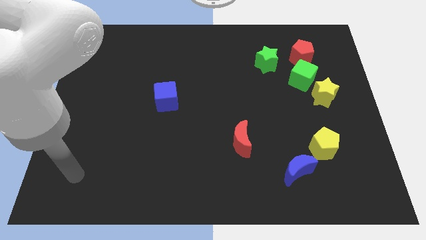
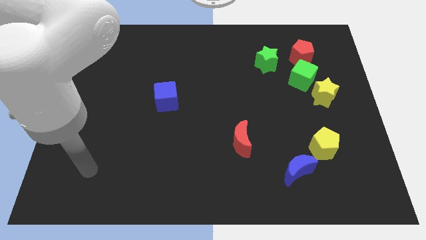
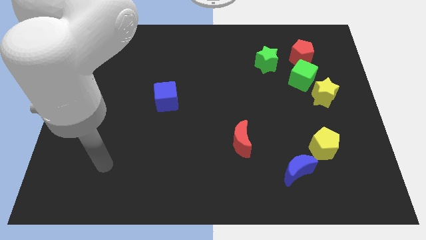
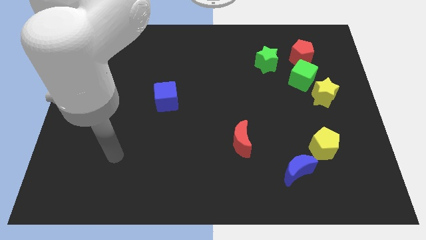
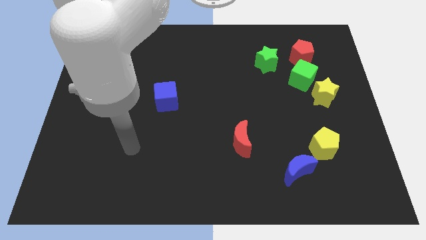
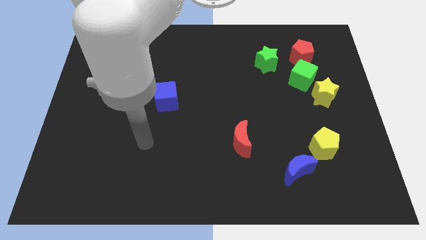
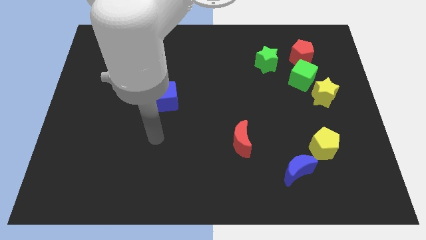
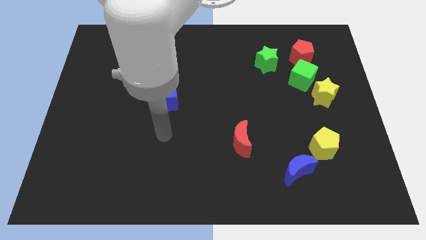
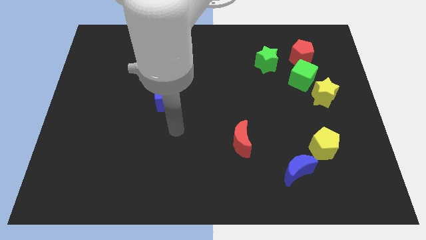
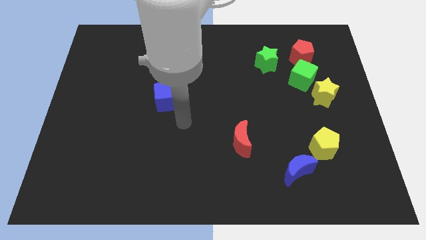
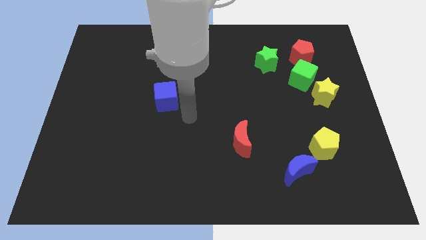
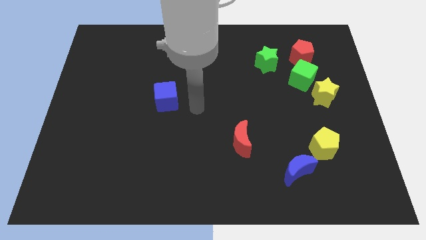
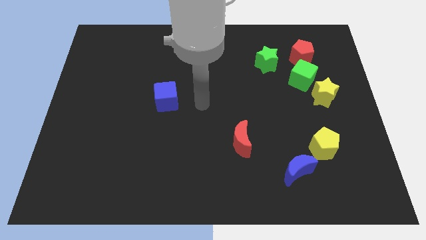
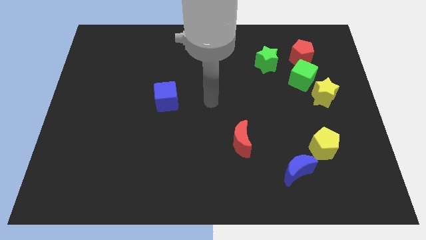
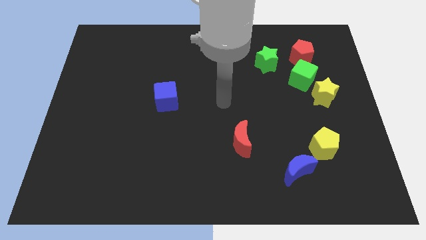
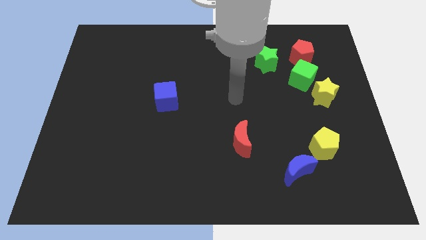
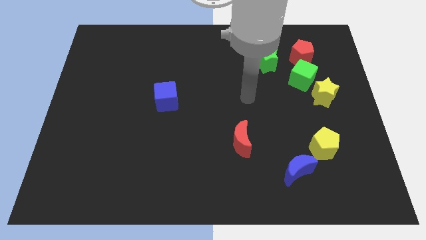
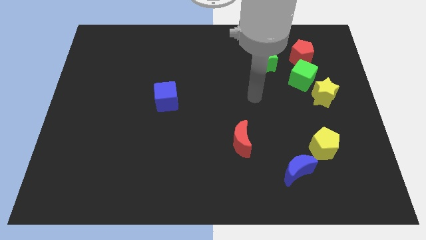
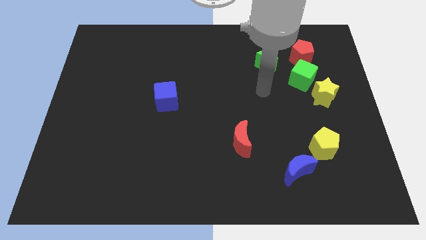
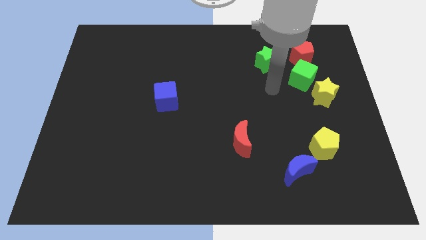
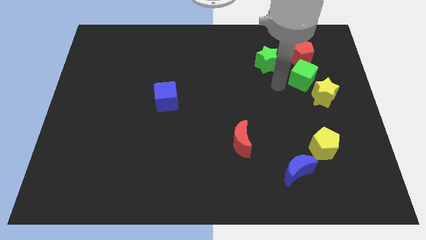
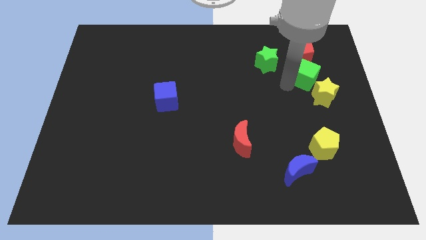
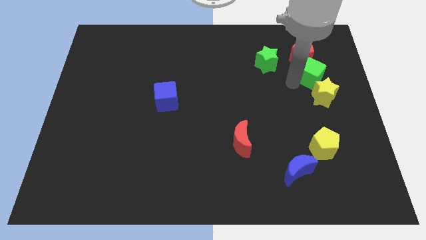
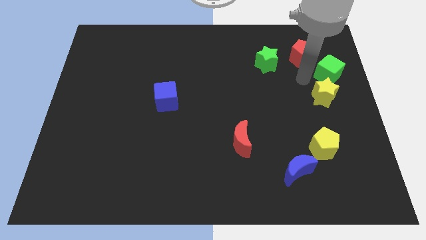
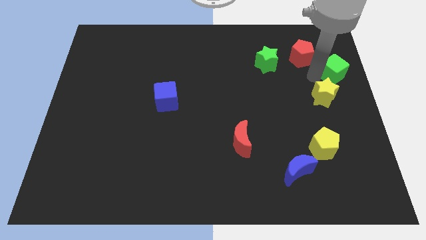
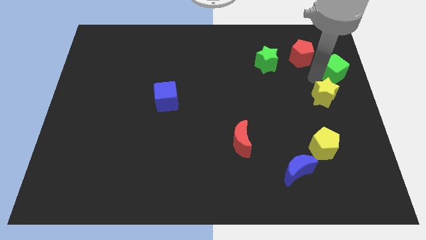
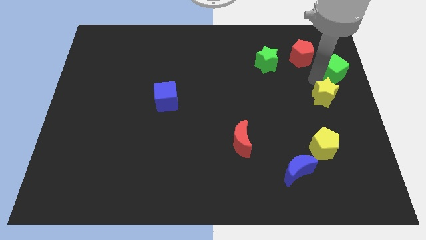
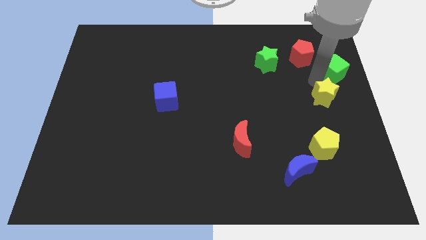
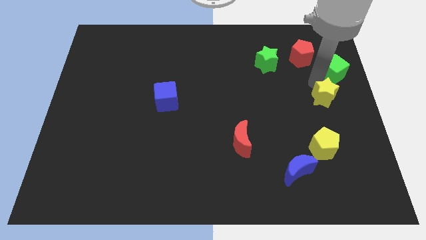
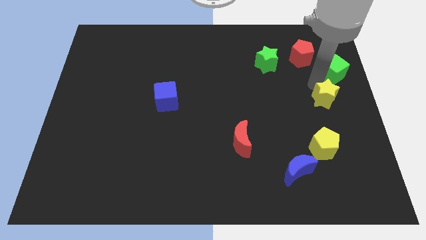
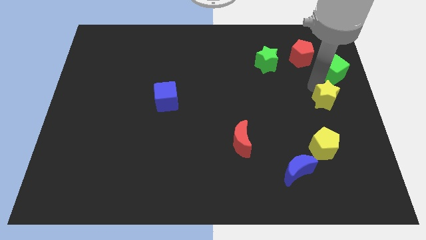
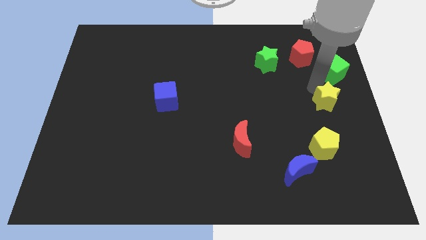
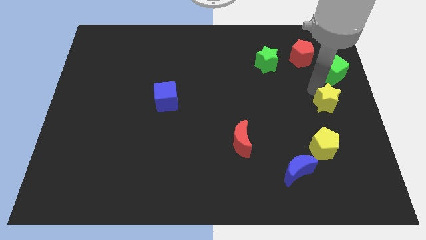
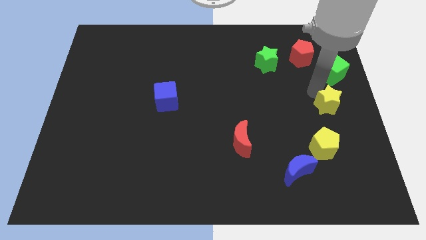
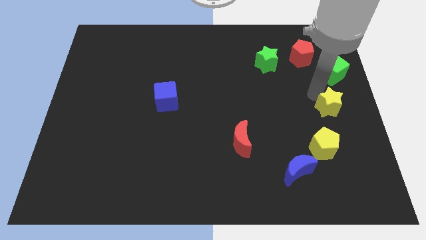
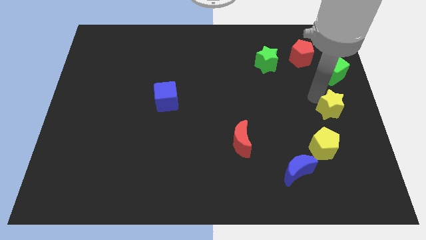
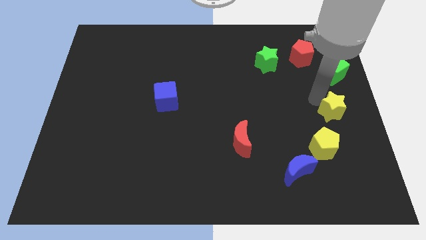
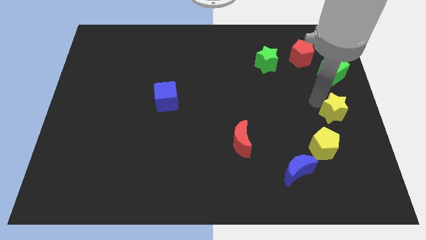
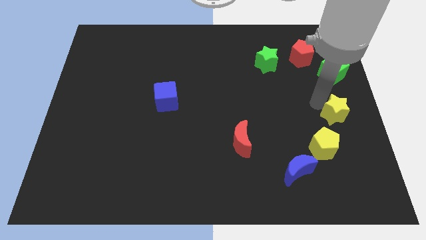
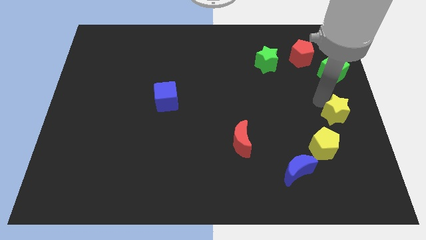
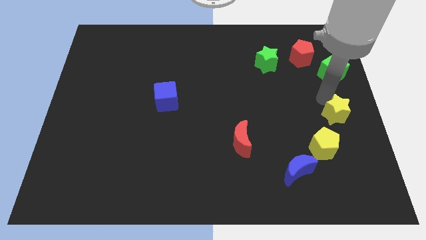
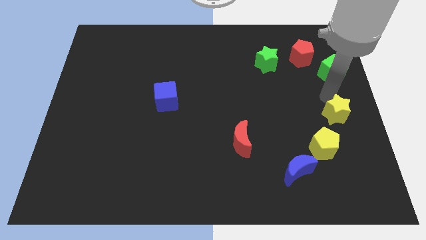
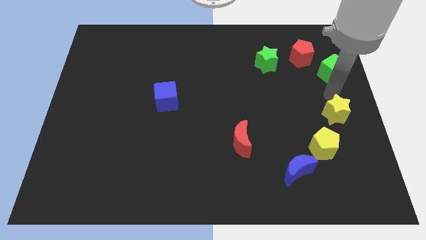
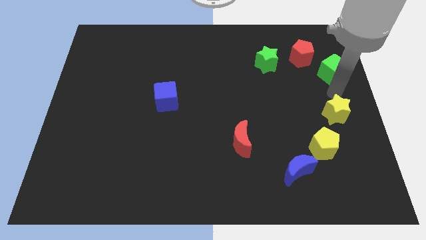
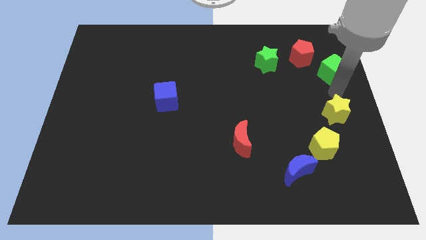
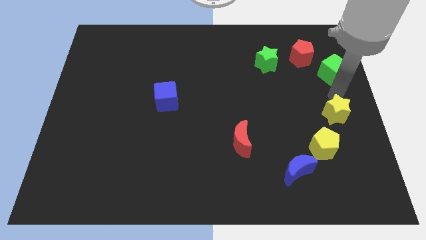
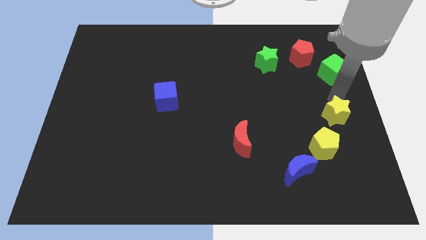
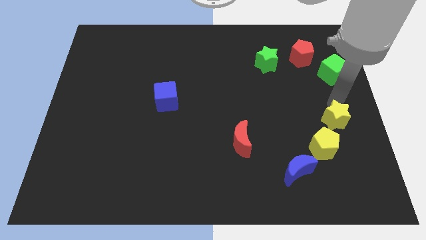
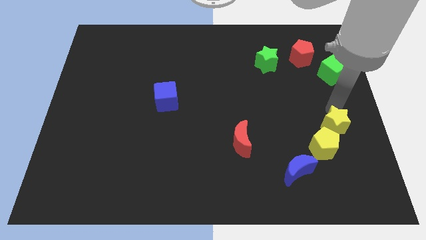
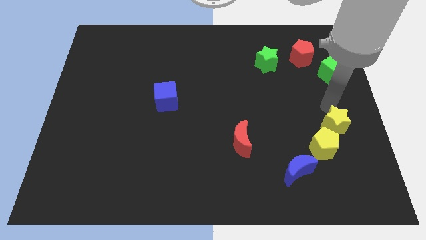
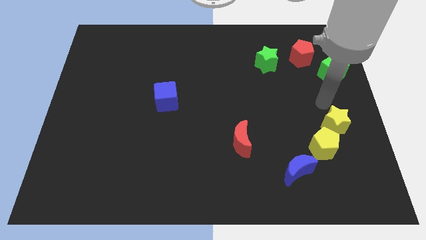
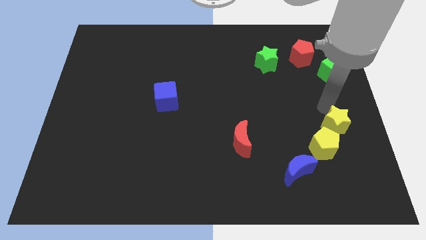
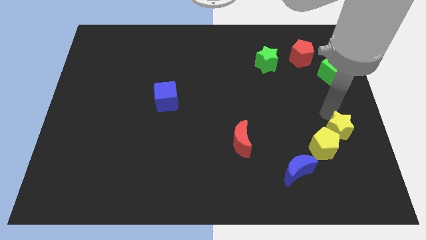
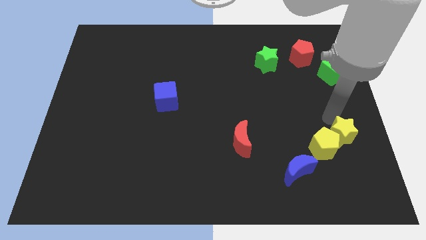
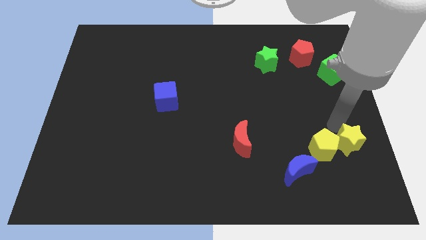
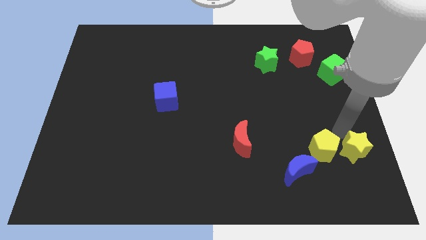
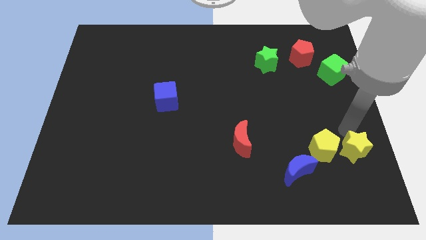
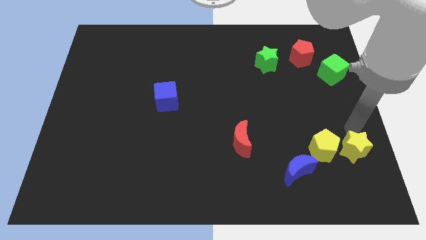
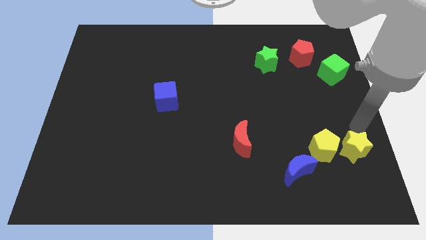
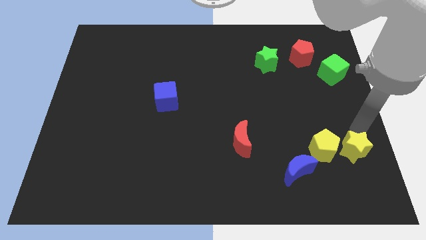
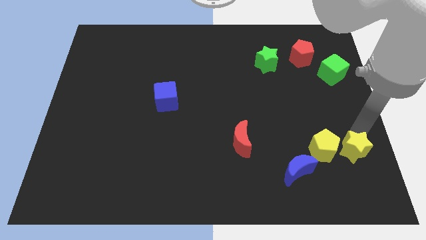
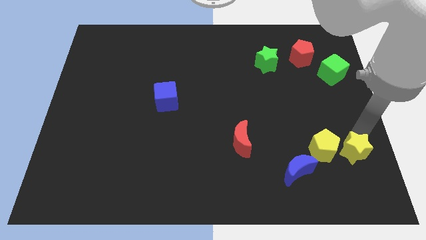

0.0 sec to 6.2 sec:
put the yellow star to the right side of the blue moon

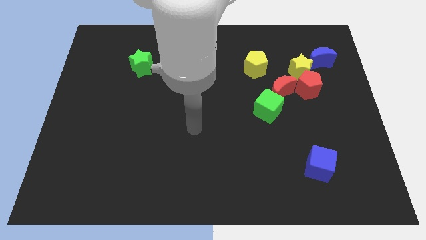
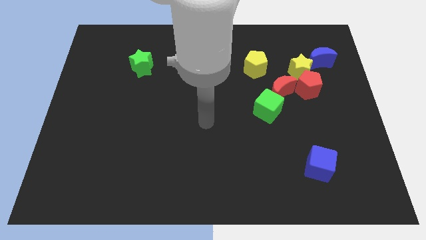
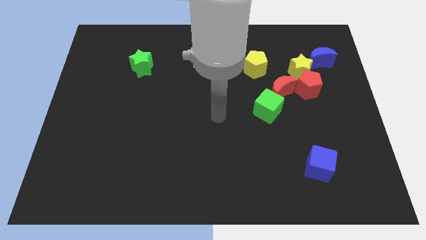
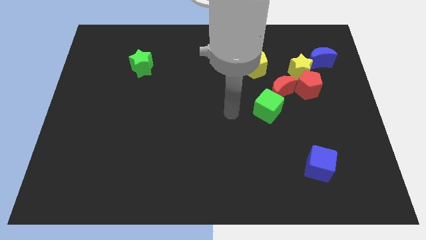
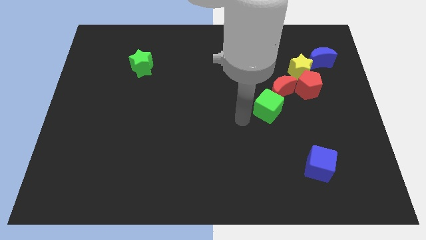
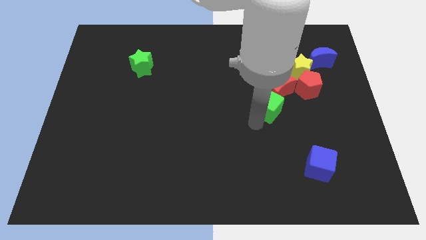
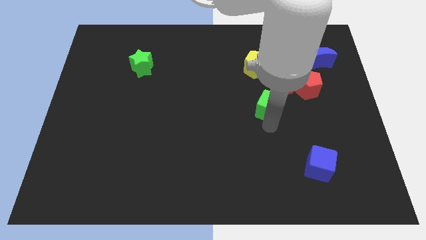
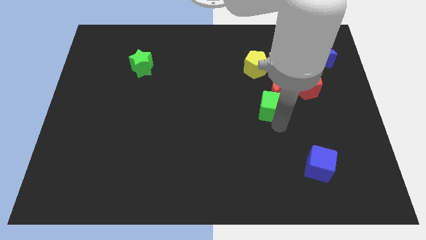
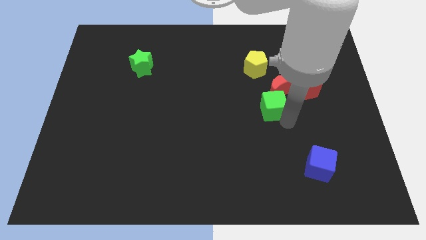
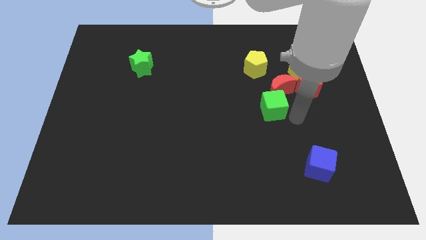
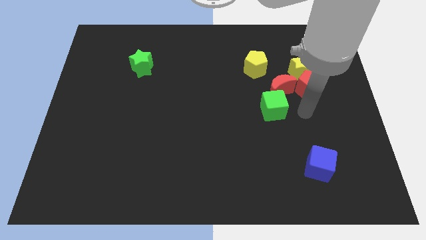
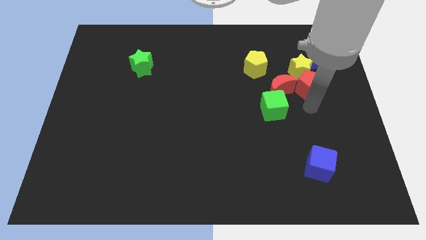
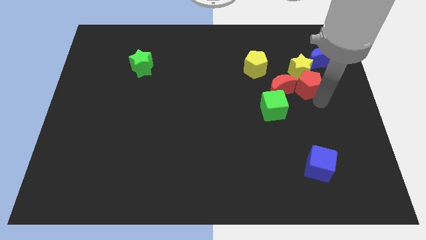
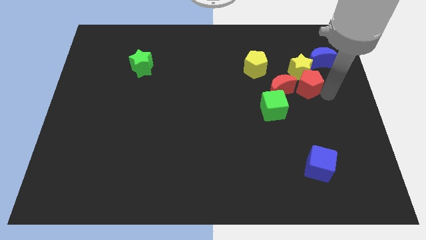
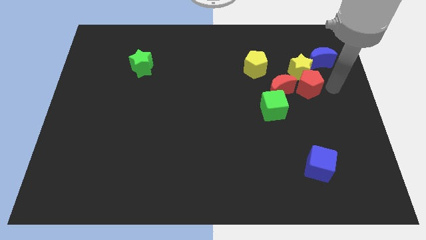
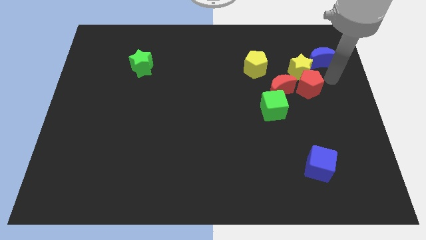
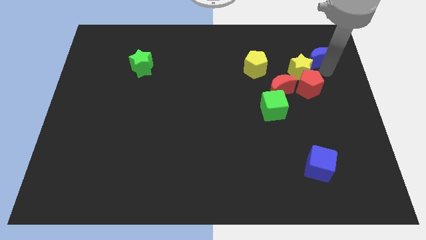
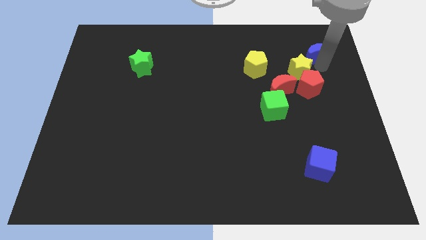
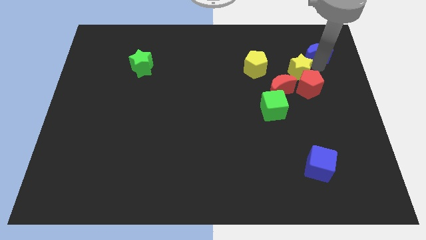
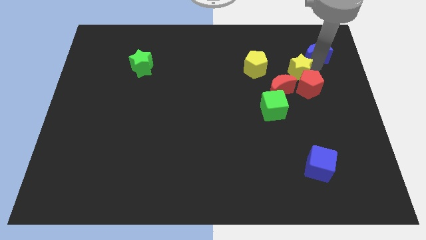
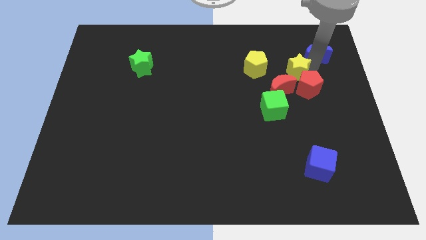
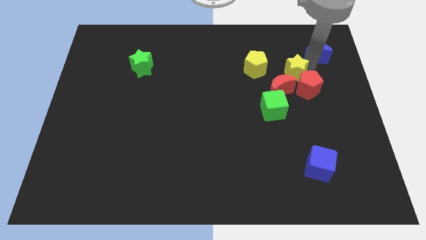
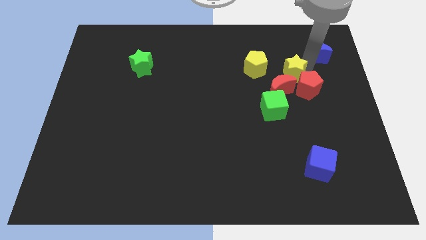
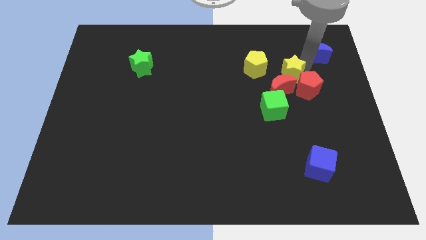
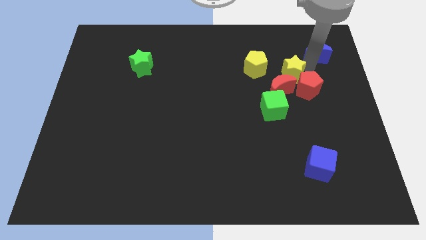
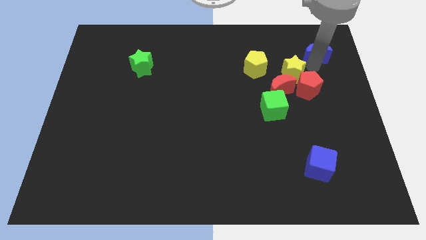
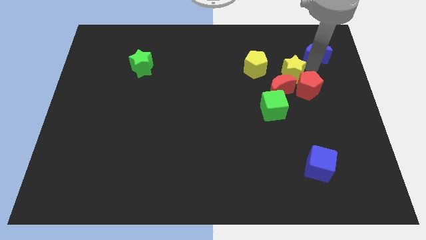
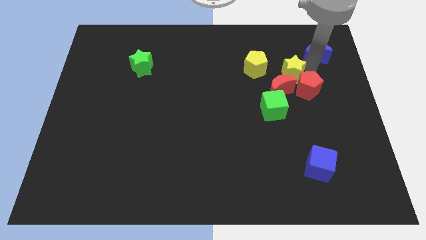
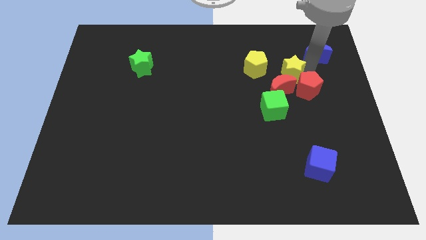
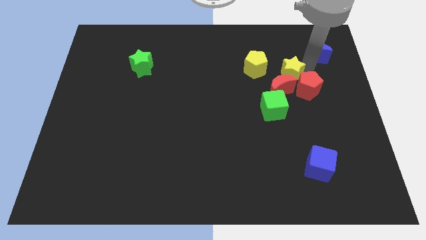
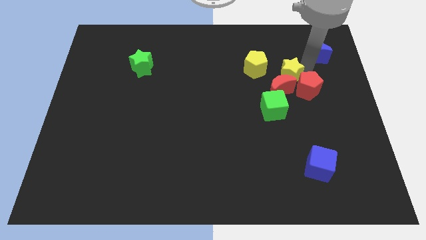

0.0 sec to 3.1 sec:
slide the yellow star to the left side of the red pentagon
